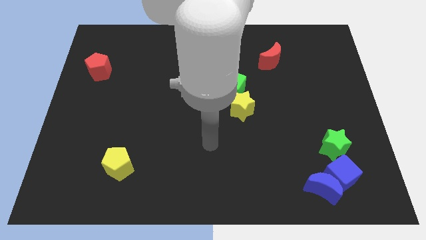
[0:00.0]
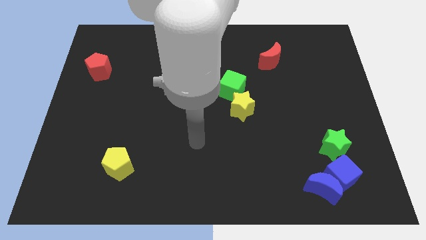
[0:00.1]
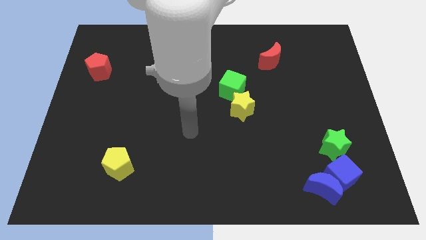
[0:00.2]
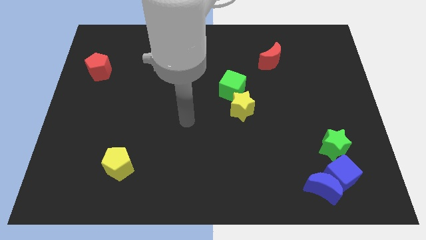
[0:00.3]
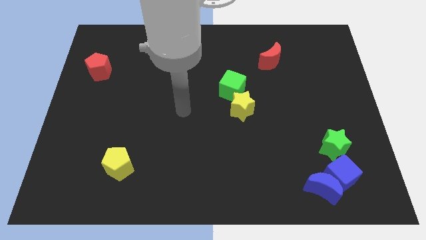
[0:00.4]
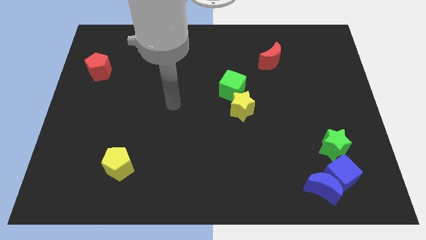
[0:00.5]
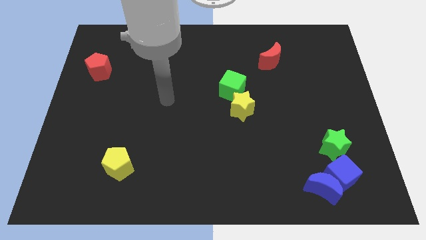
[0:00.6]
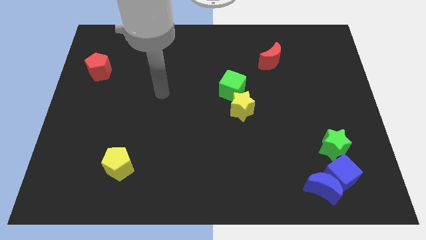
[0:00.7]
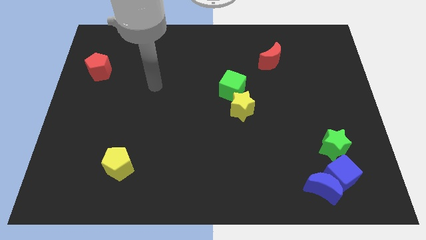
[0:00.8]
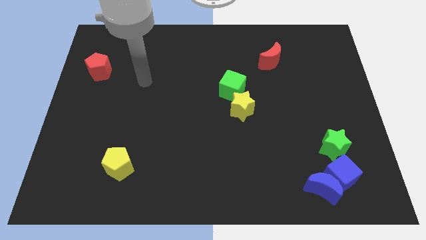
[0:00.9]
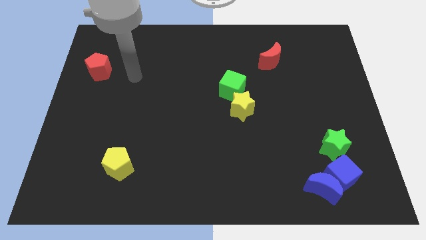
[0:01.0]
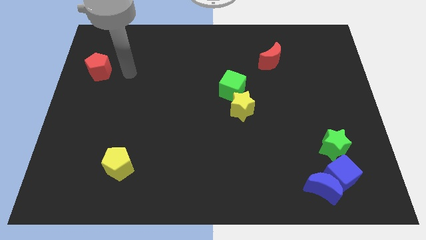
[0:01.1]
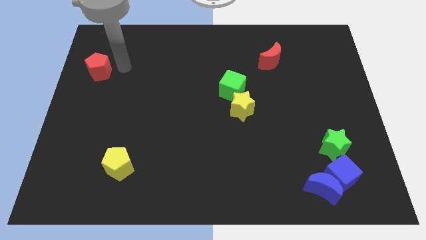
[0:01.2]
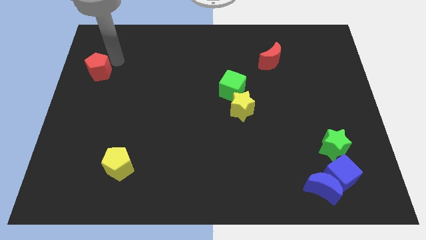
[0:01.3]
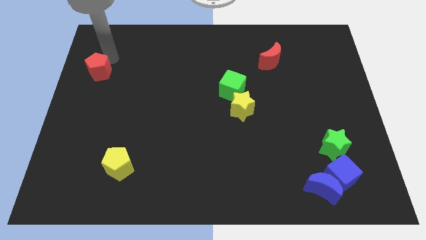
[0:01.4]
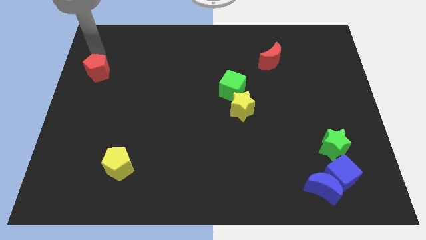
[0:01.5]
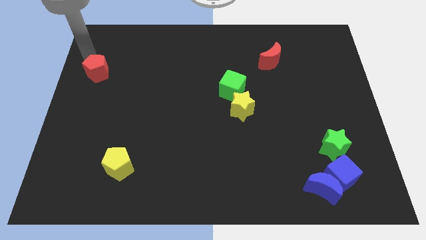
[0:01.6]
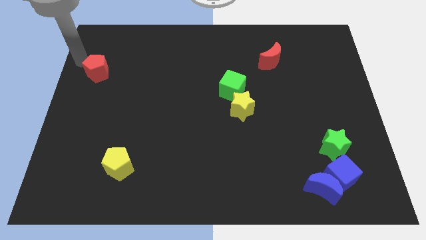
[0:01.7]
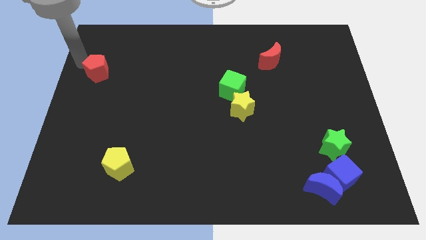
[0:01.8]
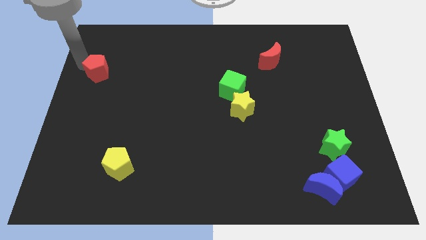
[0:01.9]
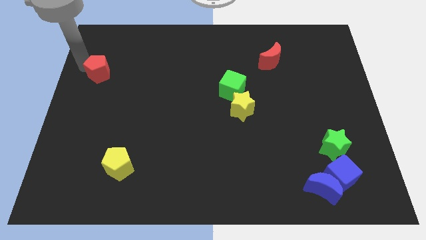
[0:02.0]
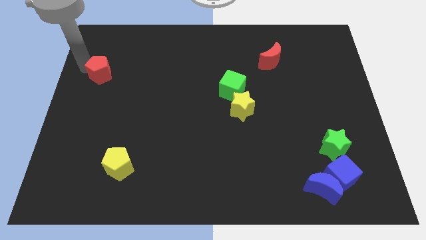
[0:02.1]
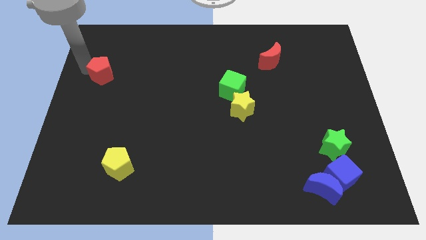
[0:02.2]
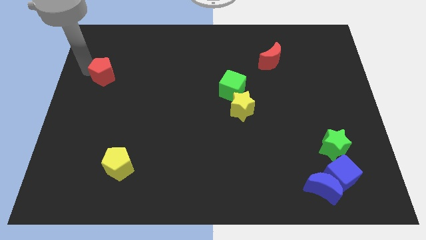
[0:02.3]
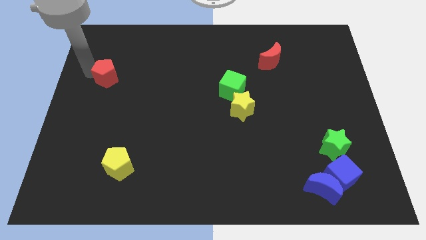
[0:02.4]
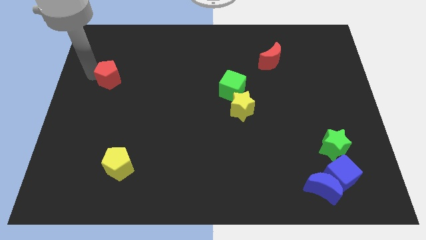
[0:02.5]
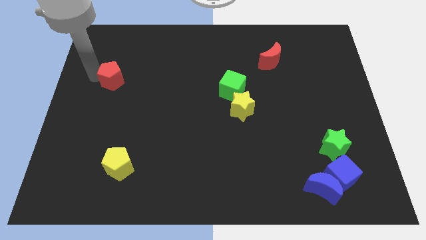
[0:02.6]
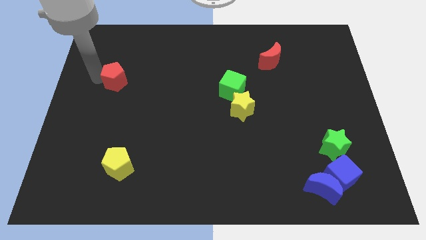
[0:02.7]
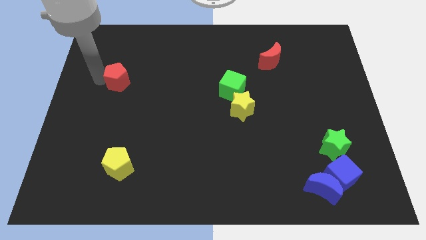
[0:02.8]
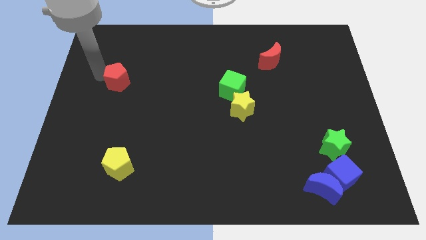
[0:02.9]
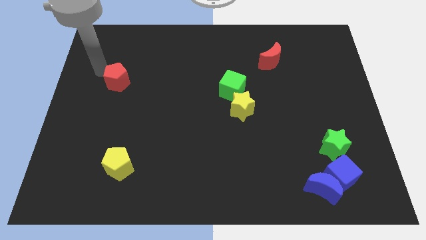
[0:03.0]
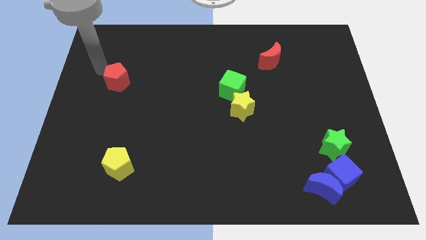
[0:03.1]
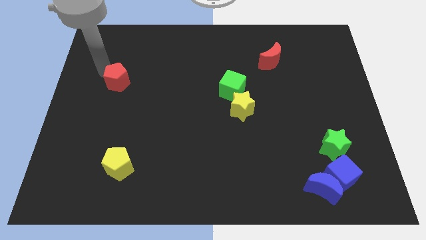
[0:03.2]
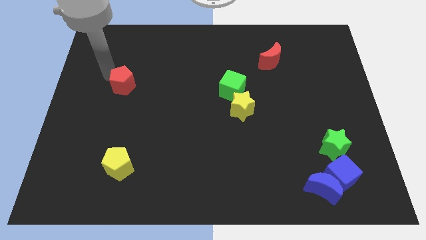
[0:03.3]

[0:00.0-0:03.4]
push the red pentagon diagonally downwards and to the right somewhat

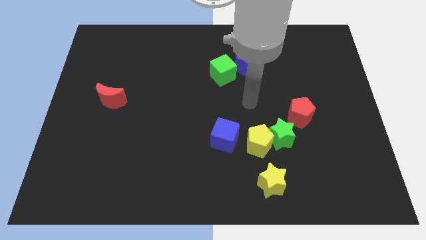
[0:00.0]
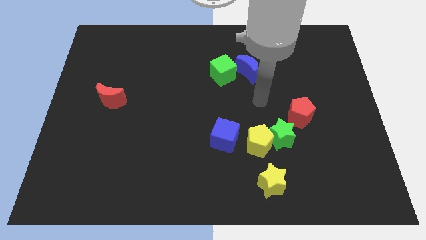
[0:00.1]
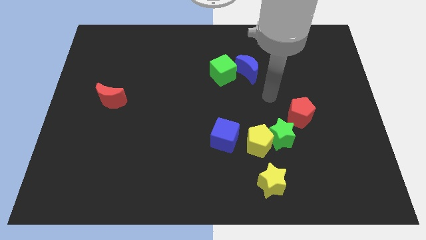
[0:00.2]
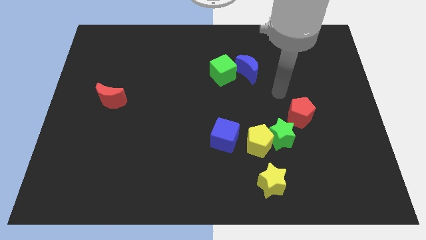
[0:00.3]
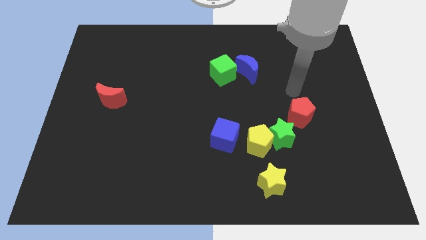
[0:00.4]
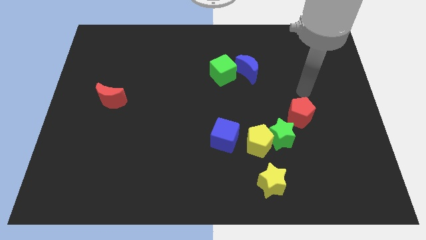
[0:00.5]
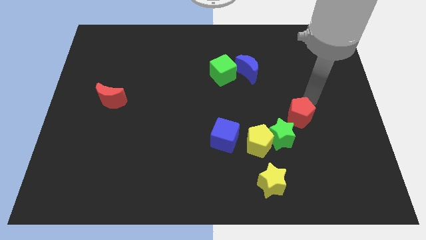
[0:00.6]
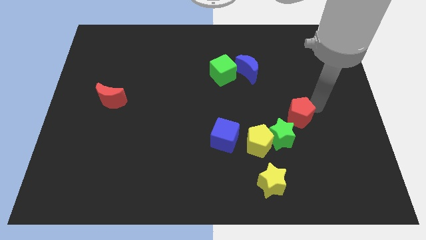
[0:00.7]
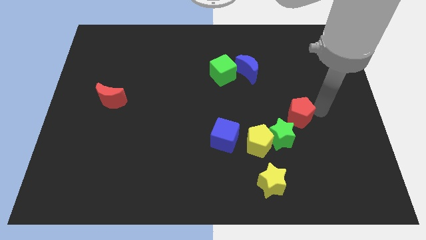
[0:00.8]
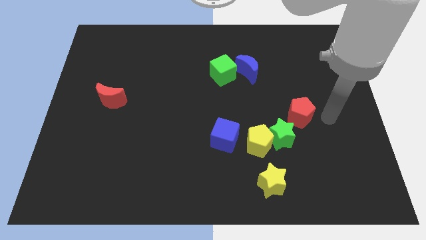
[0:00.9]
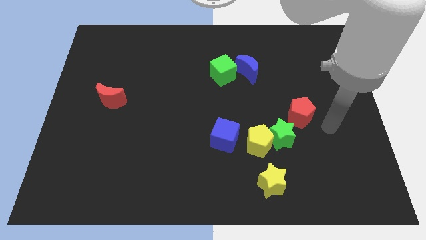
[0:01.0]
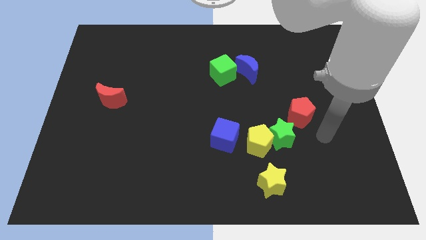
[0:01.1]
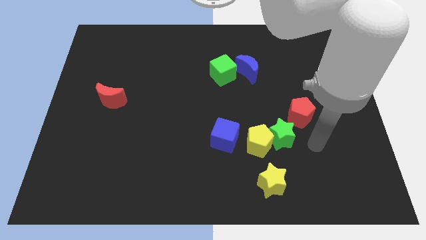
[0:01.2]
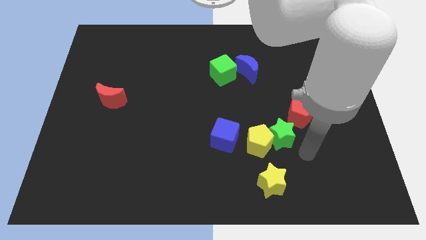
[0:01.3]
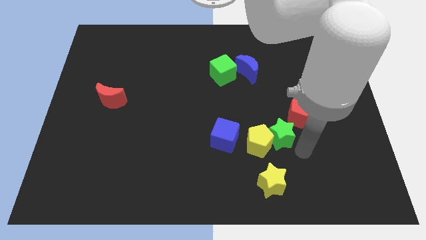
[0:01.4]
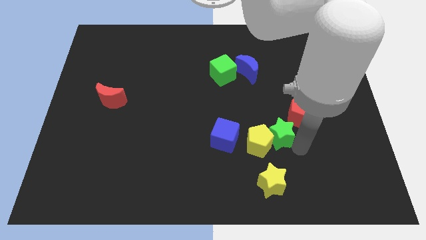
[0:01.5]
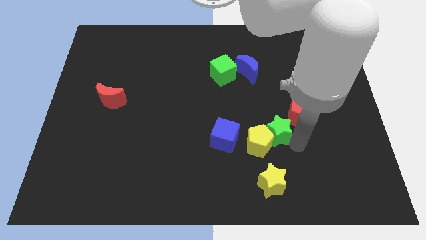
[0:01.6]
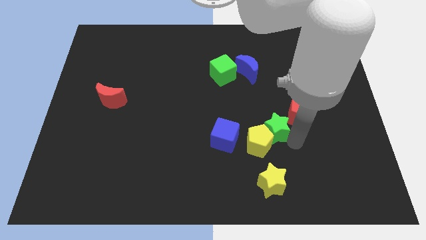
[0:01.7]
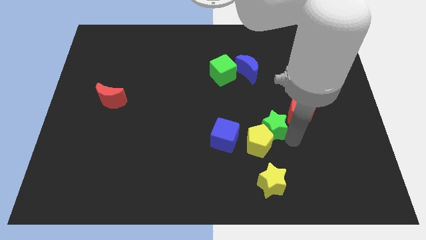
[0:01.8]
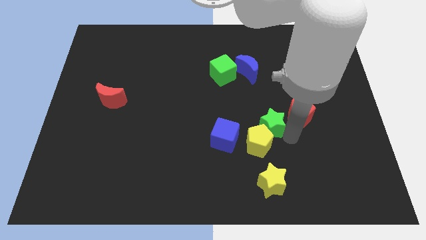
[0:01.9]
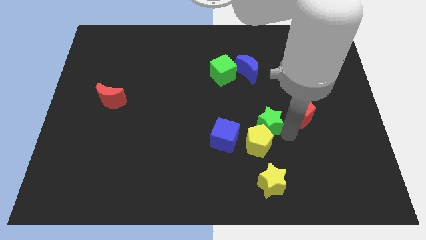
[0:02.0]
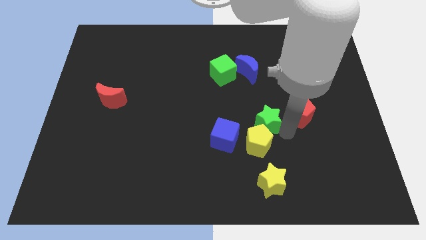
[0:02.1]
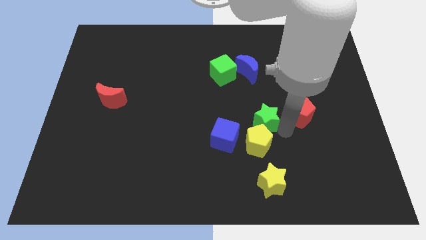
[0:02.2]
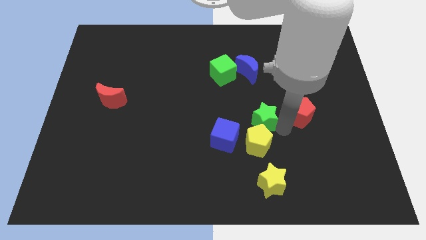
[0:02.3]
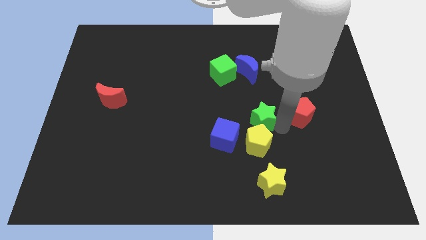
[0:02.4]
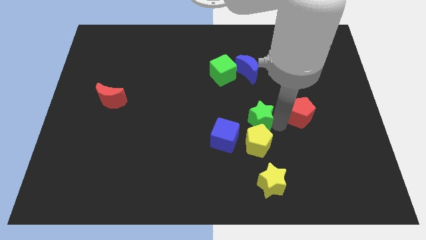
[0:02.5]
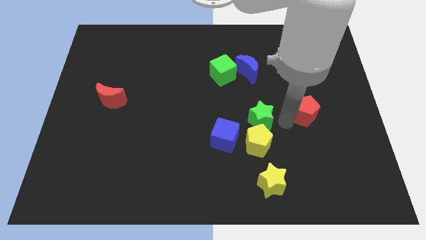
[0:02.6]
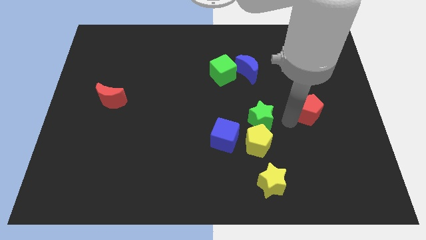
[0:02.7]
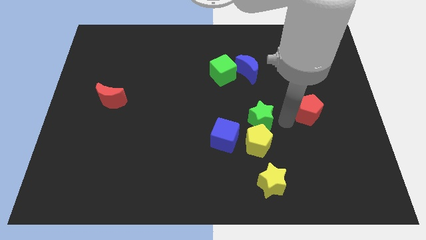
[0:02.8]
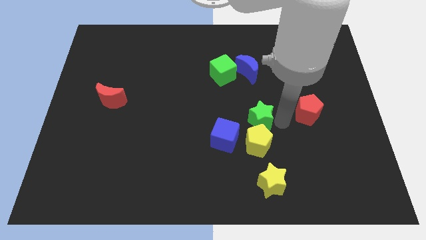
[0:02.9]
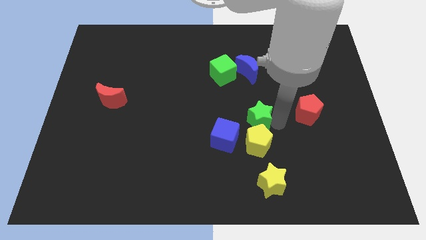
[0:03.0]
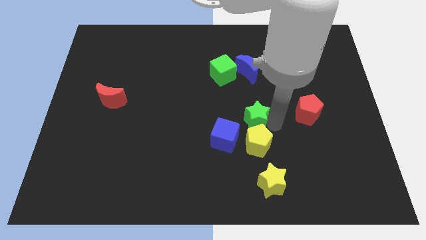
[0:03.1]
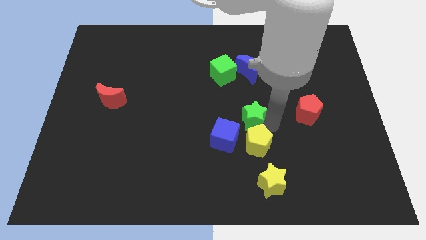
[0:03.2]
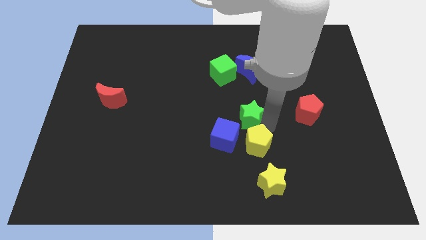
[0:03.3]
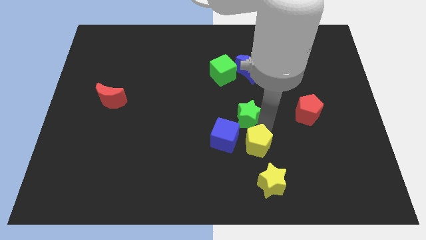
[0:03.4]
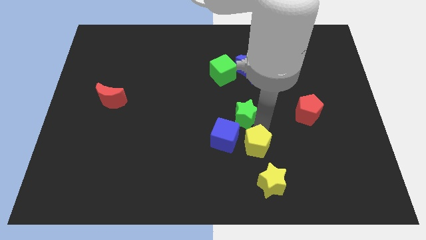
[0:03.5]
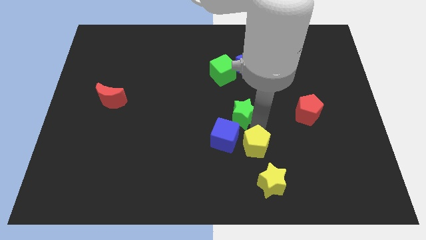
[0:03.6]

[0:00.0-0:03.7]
slightly move the green star to the left

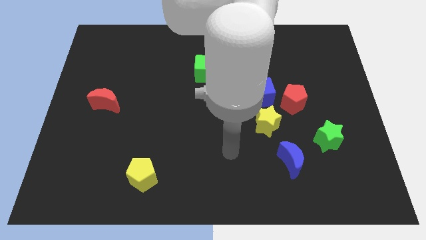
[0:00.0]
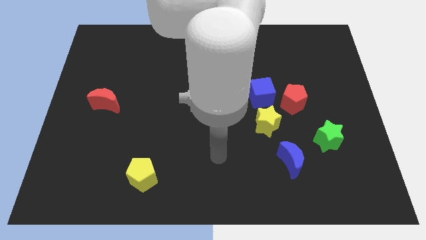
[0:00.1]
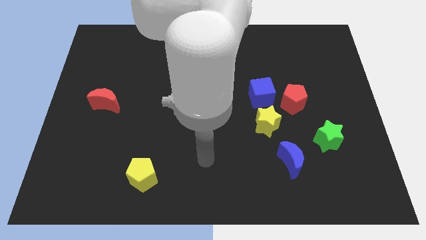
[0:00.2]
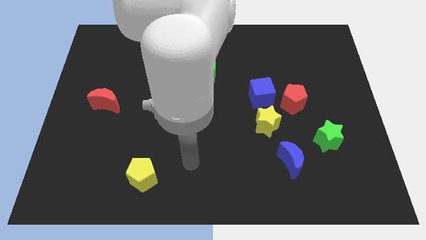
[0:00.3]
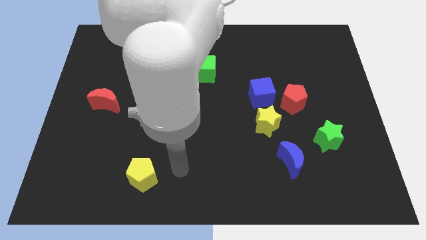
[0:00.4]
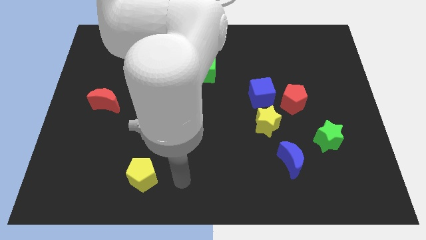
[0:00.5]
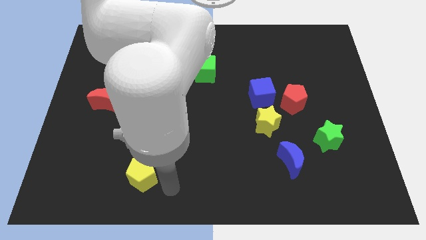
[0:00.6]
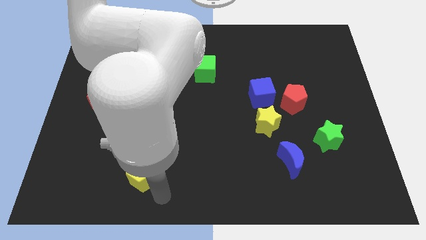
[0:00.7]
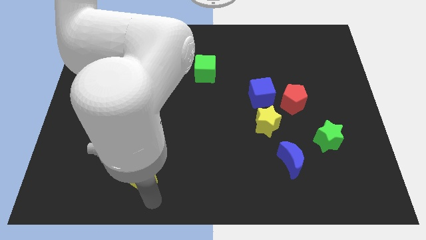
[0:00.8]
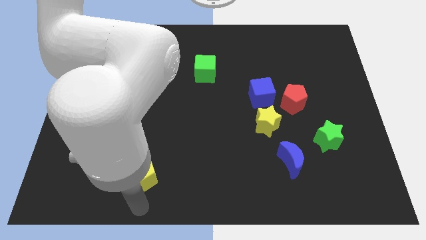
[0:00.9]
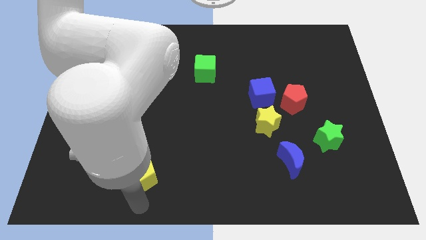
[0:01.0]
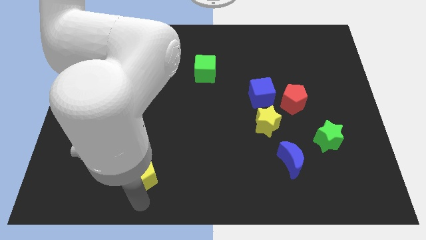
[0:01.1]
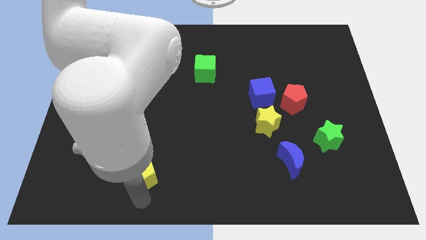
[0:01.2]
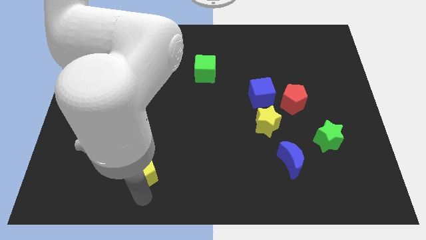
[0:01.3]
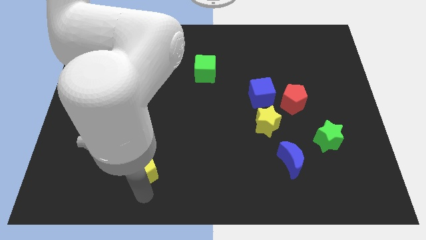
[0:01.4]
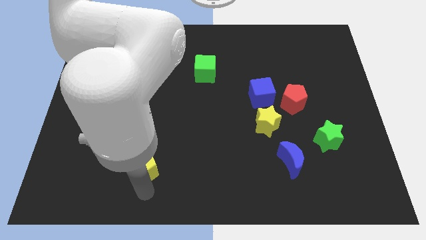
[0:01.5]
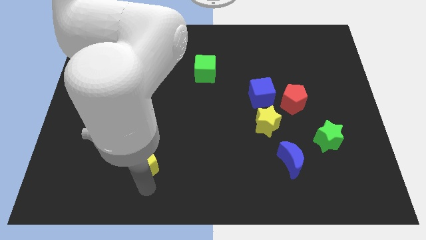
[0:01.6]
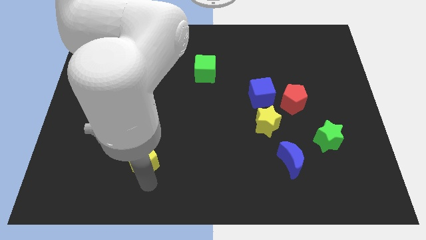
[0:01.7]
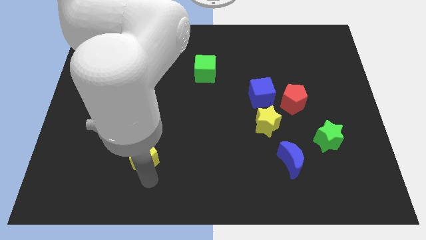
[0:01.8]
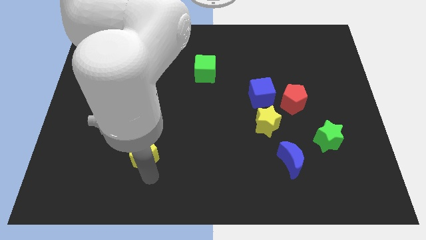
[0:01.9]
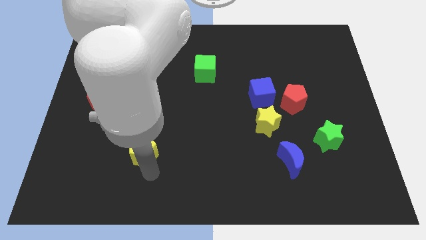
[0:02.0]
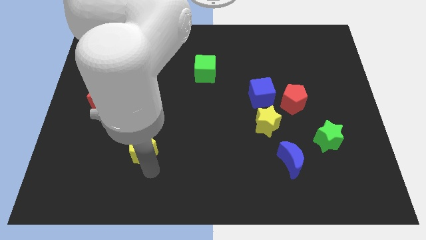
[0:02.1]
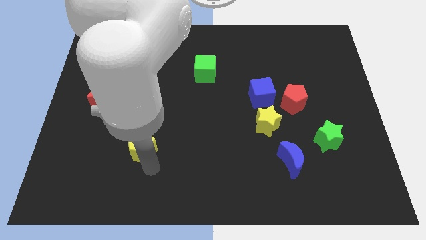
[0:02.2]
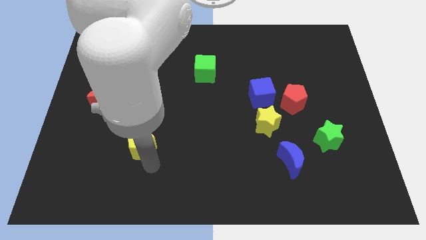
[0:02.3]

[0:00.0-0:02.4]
slide the yellow pentagon upwards slightly
